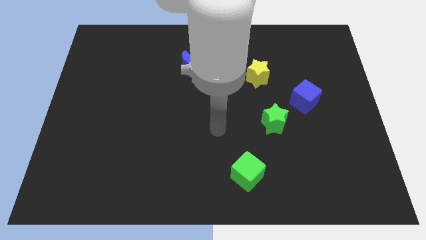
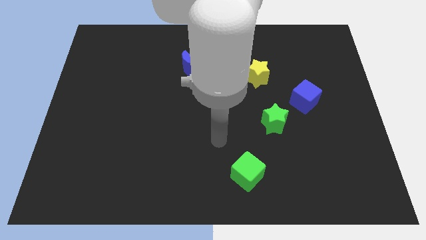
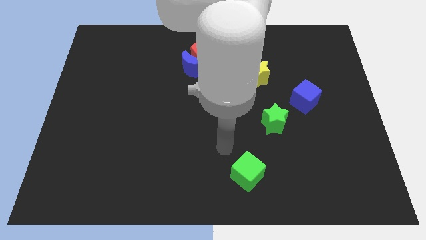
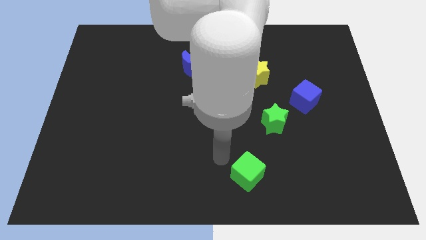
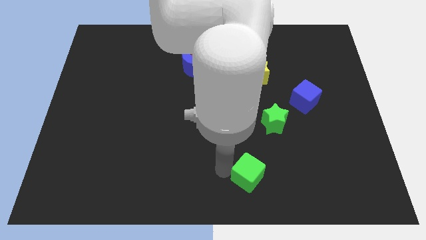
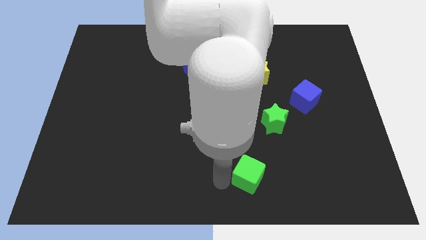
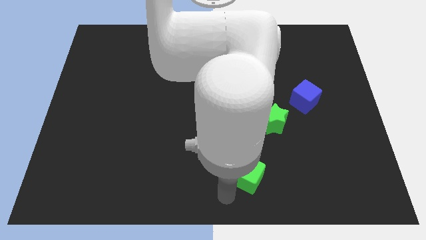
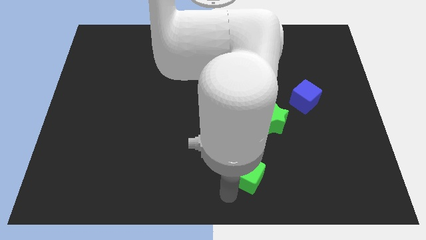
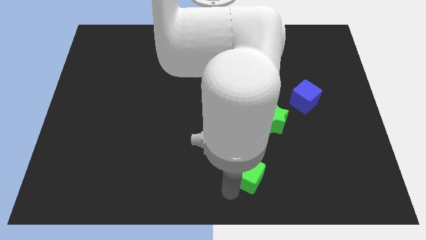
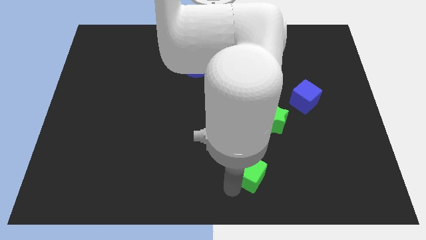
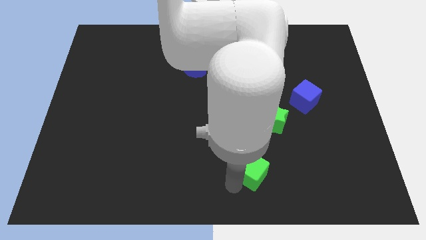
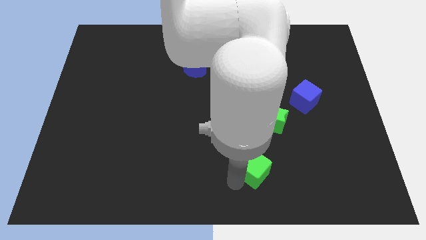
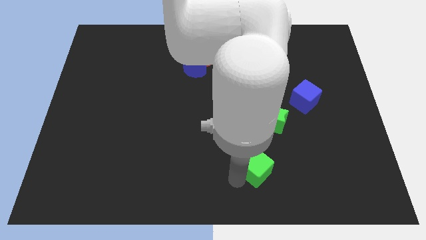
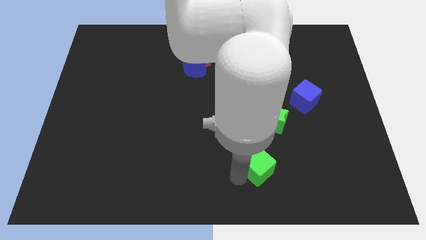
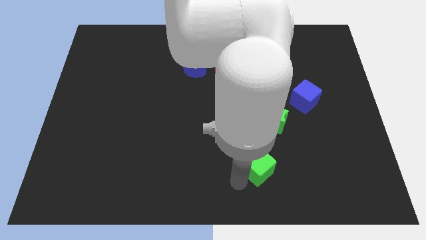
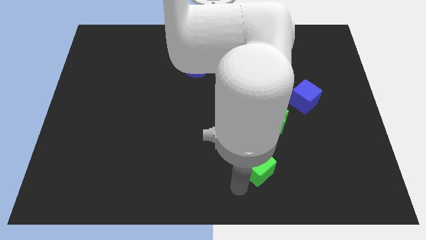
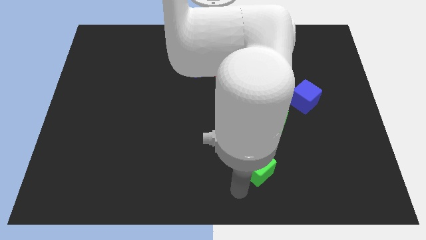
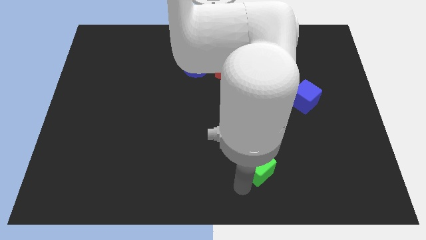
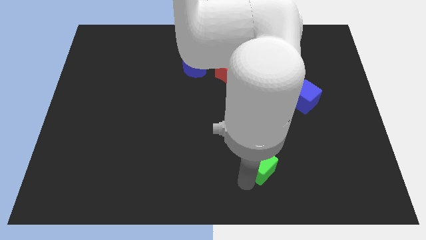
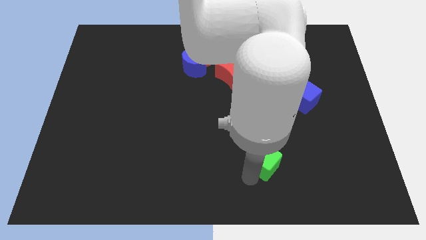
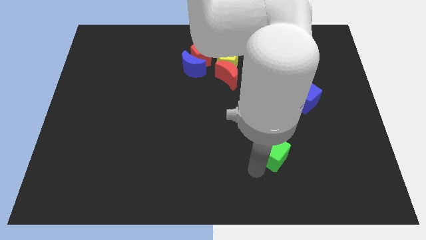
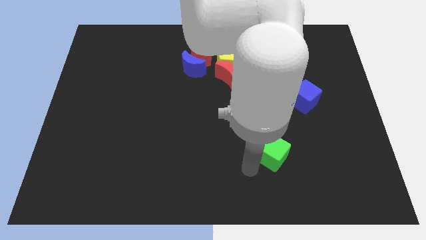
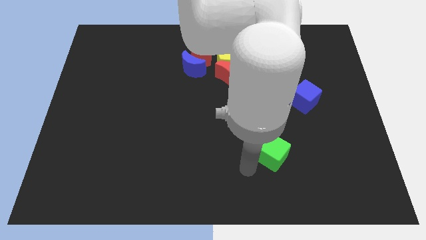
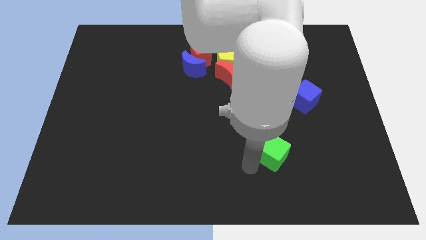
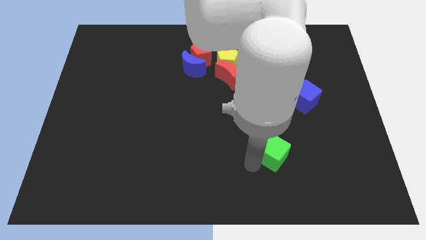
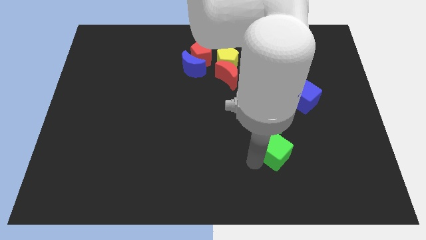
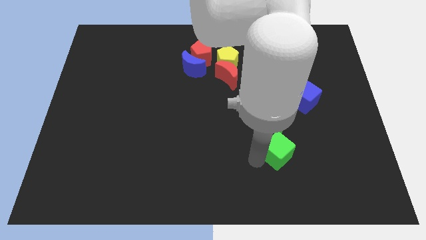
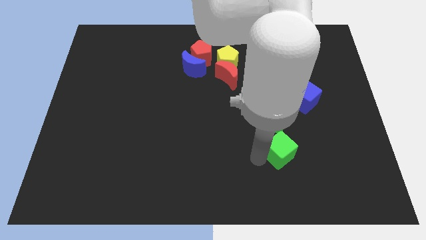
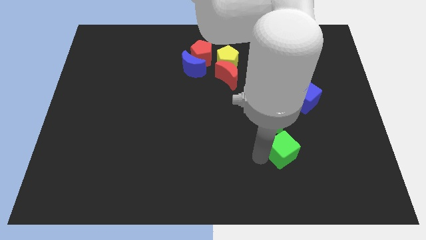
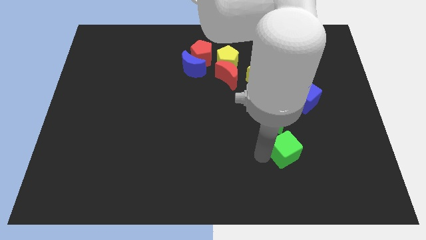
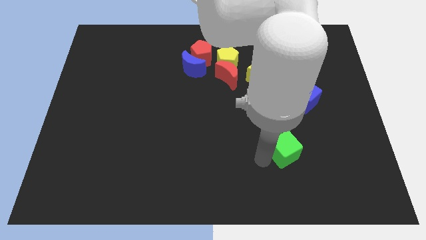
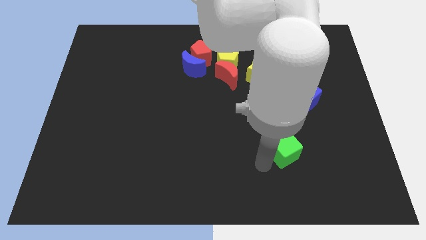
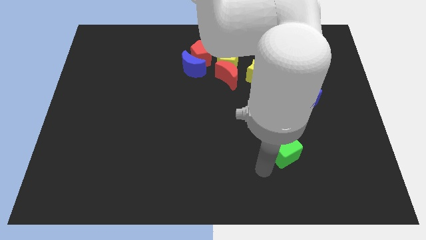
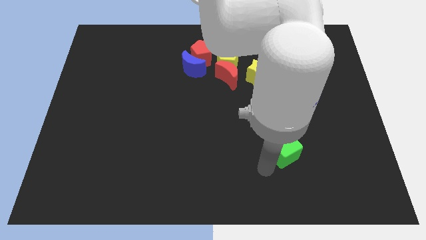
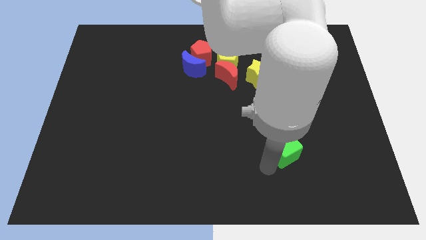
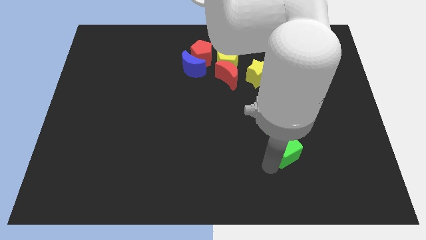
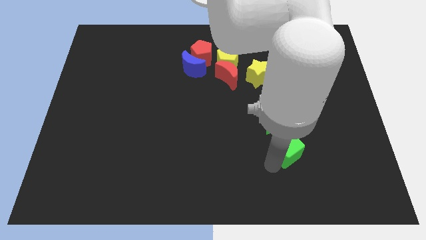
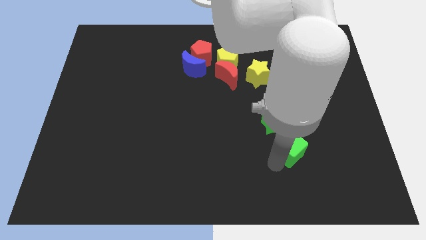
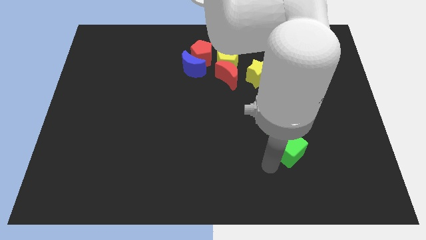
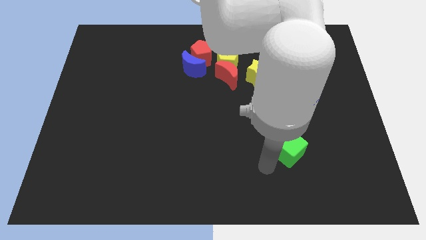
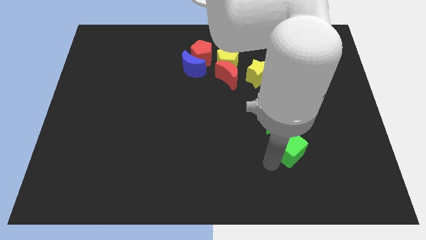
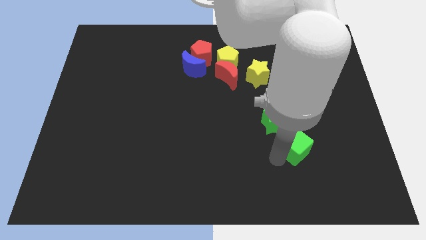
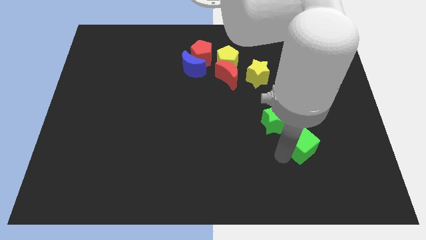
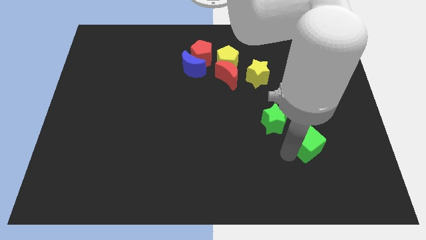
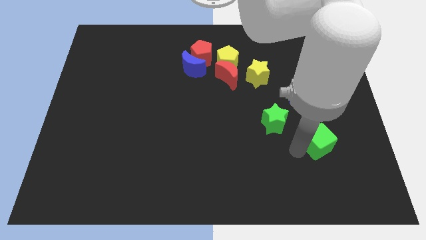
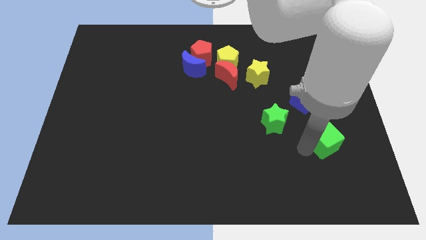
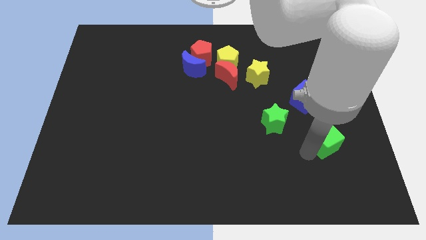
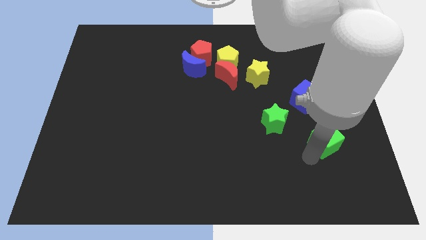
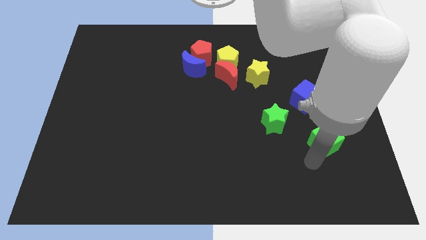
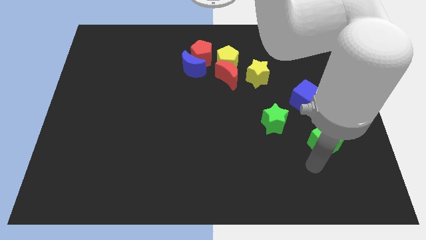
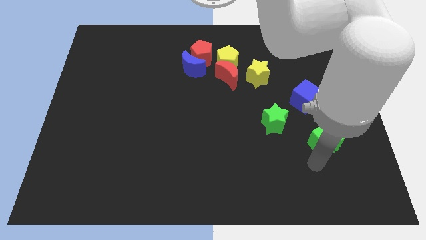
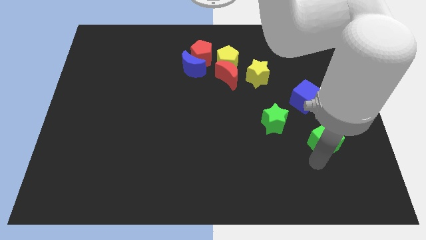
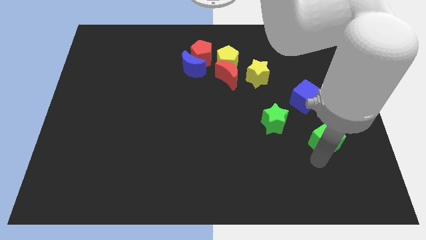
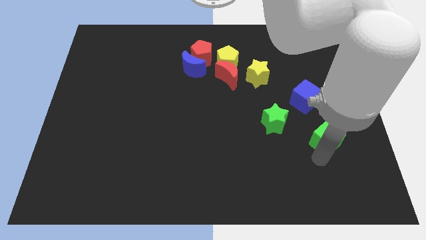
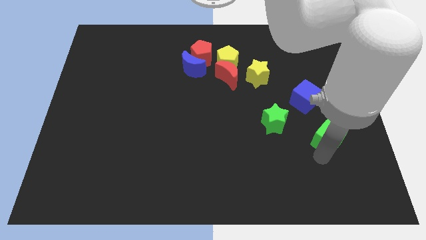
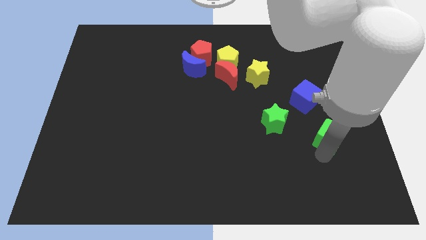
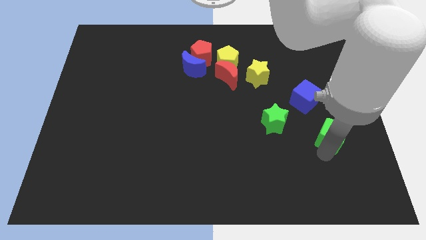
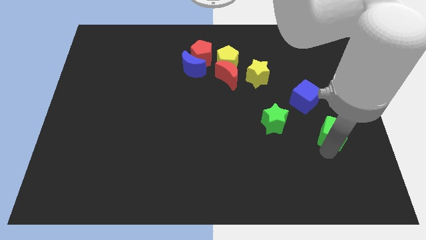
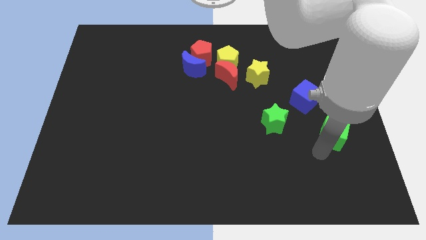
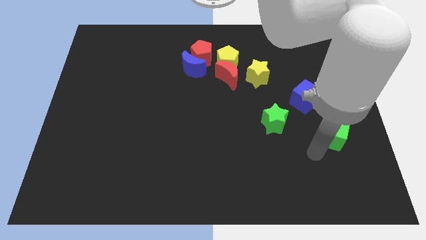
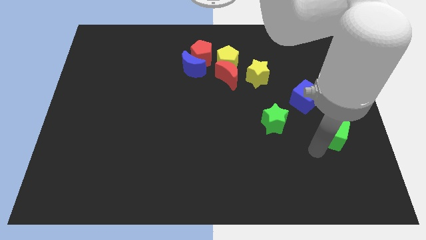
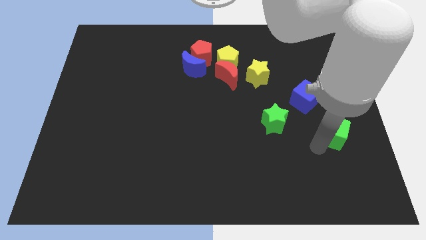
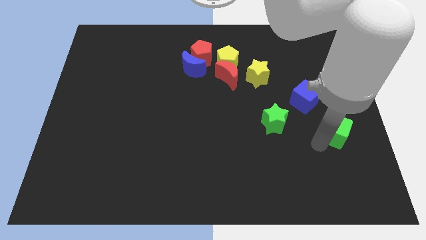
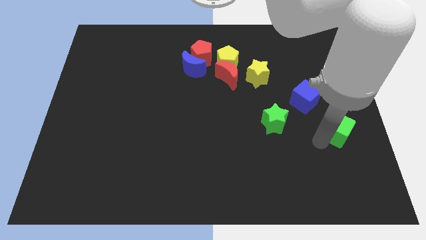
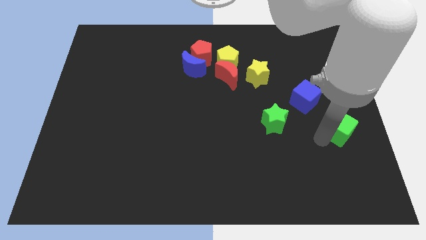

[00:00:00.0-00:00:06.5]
put the green cube to the center right
